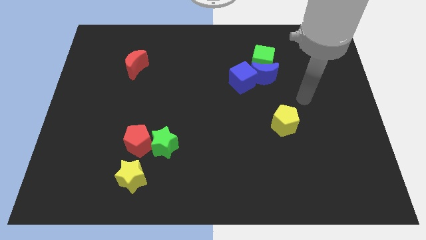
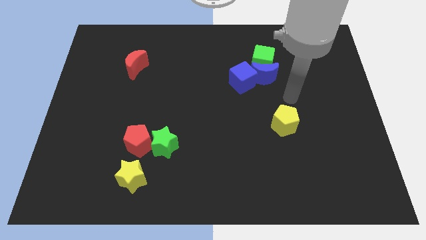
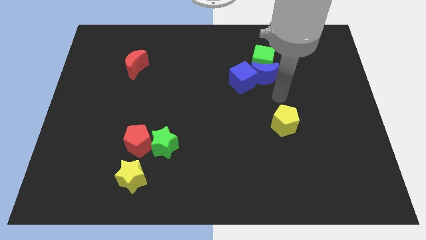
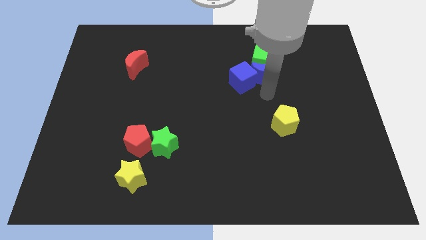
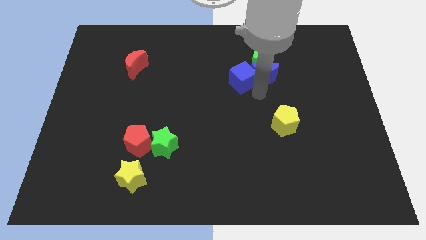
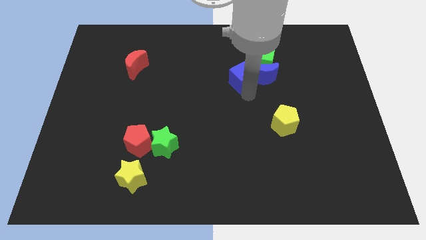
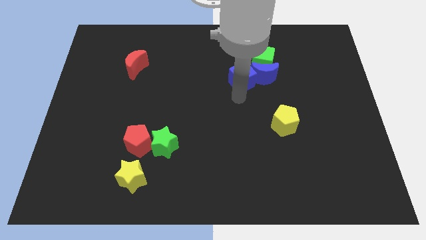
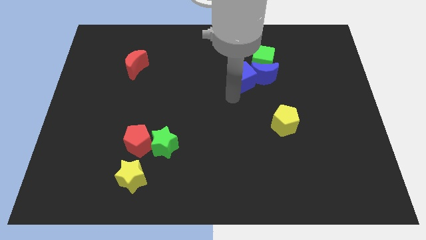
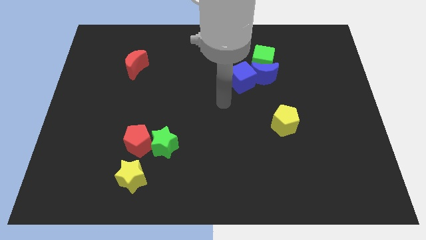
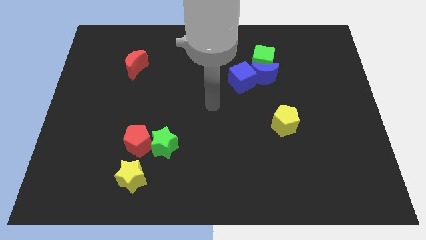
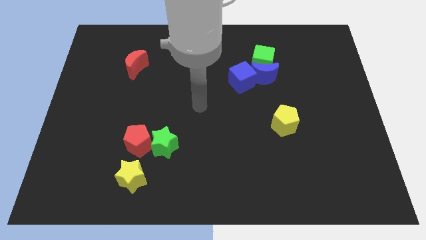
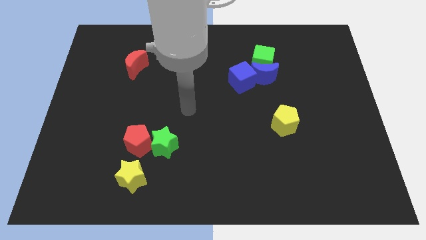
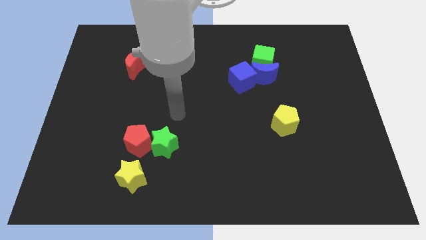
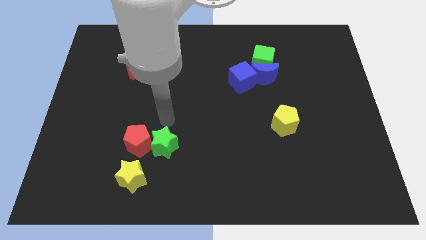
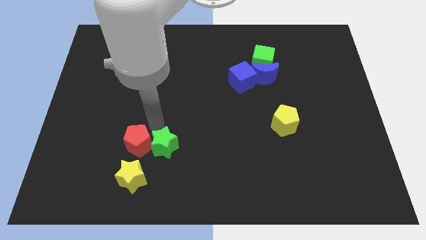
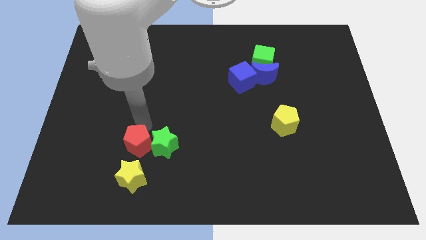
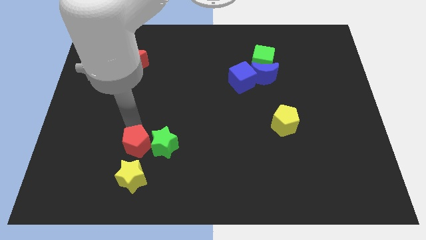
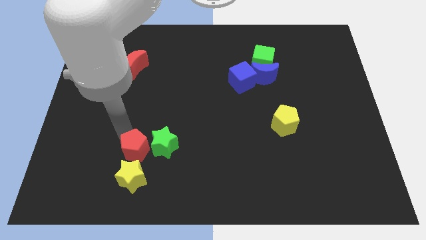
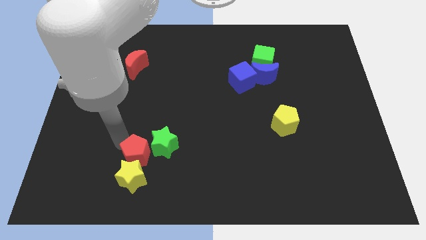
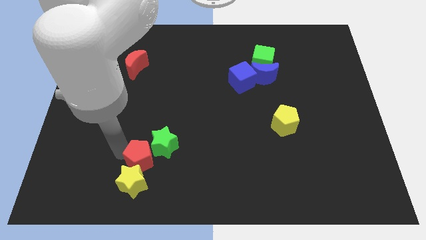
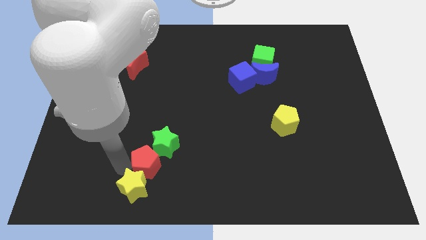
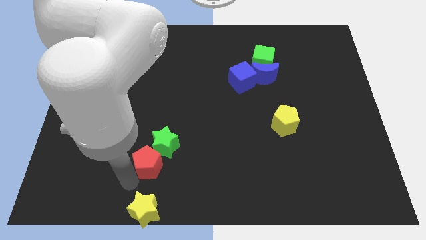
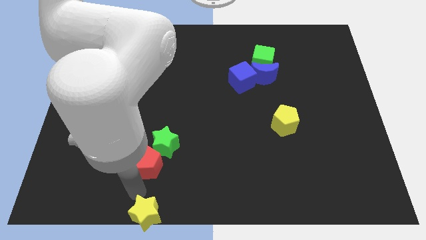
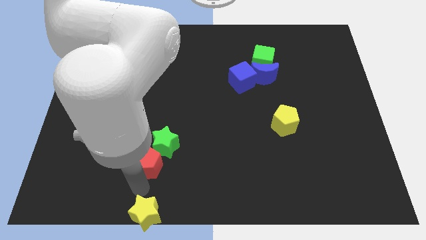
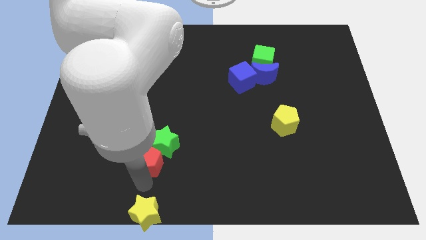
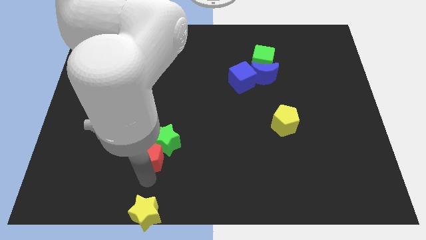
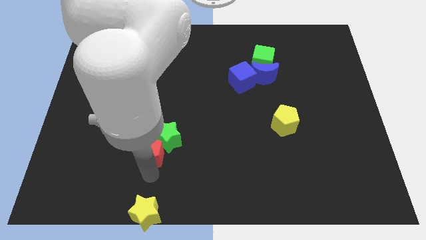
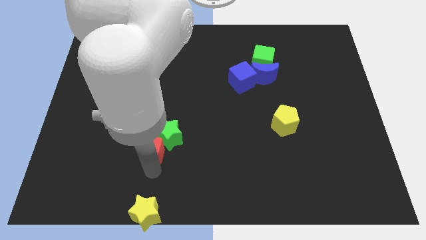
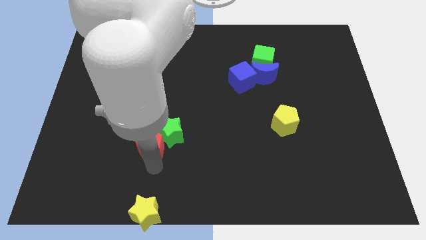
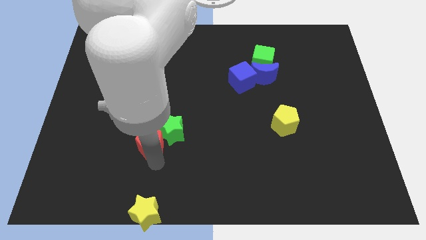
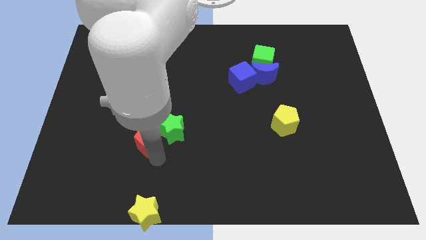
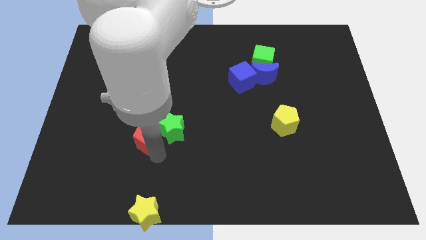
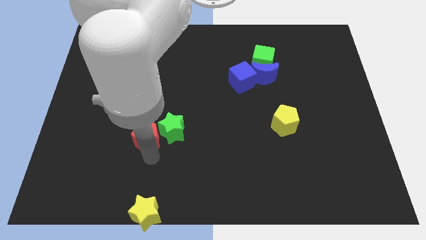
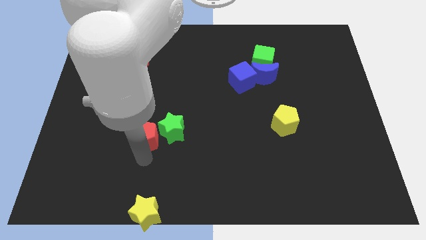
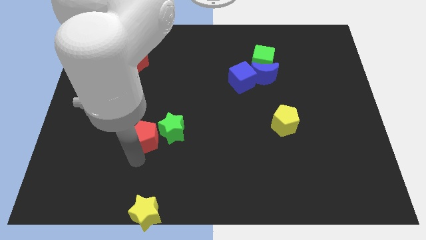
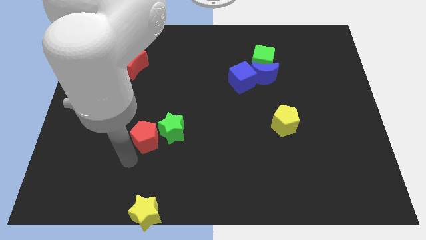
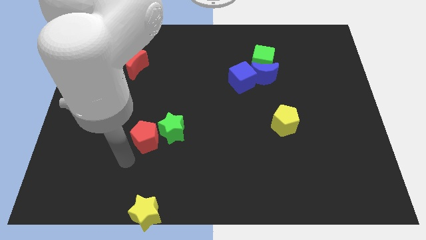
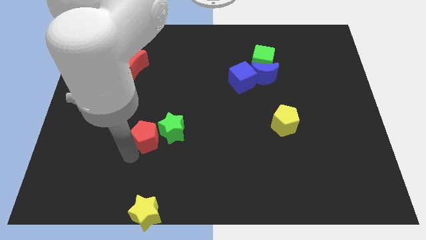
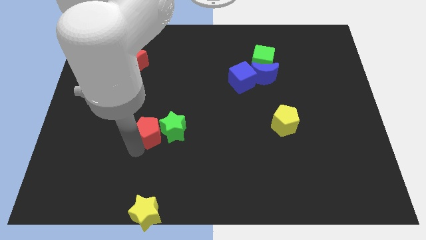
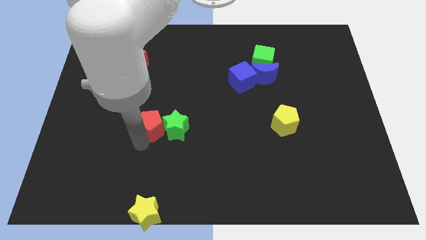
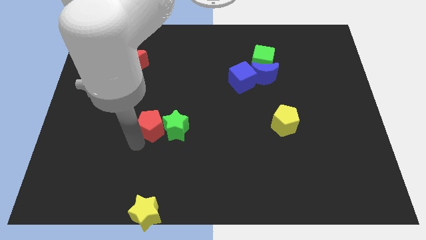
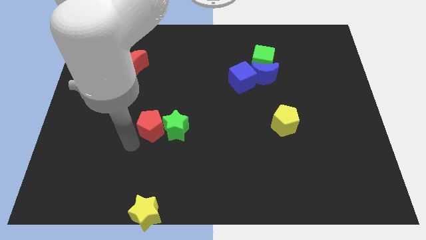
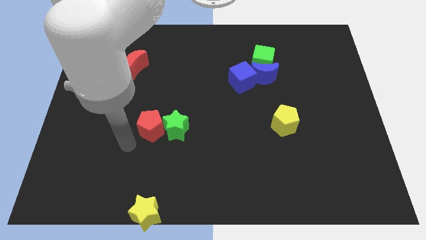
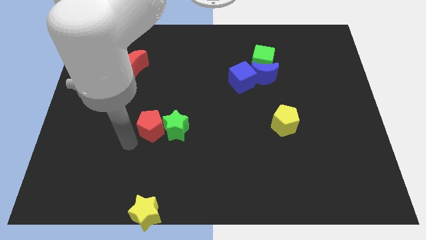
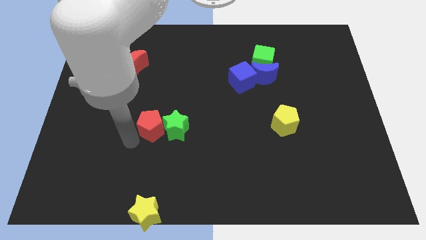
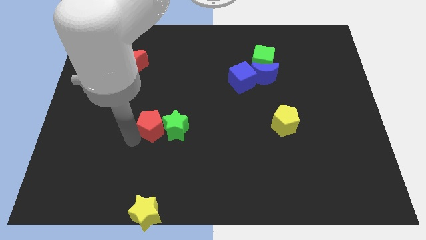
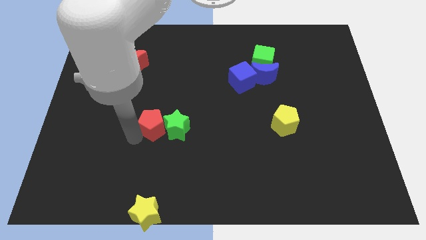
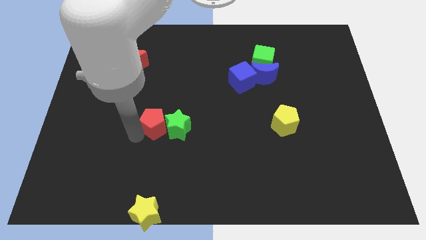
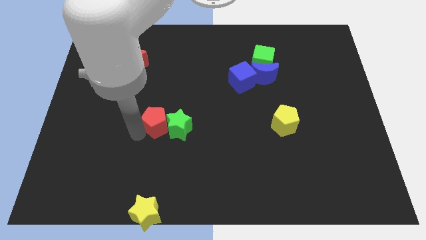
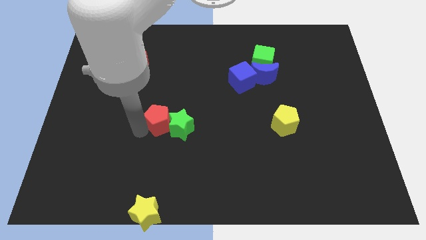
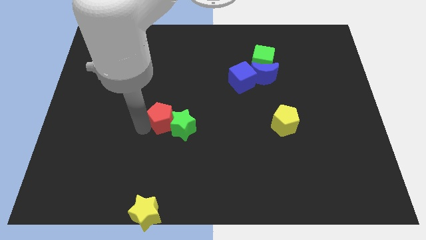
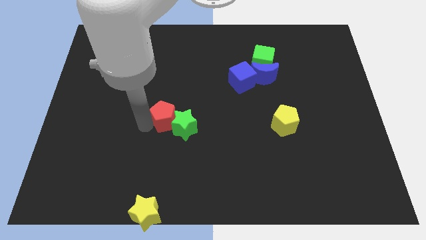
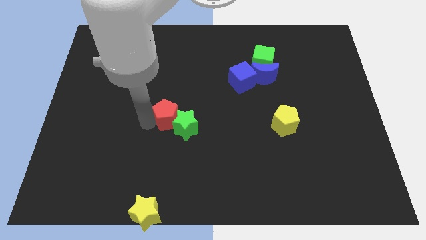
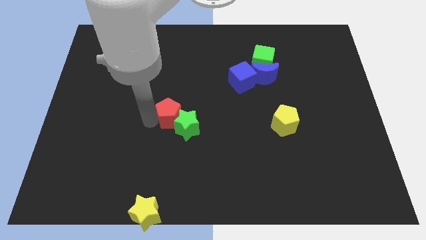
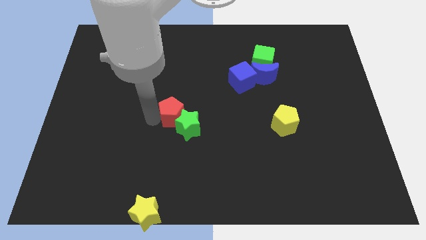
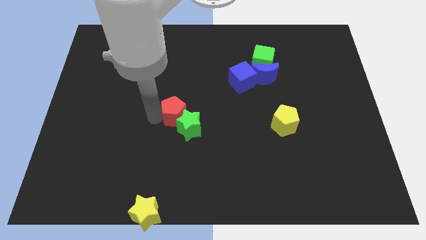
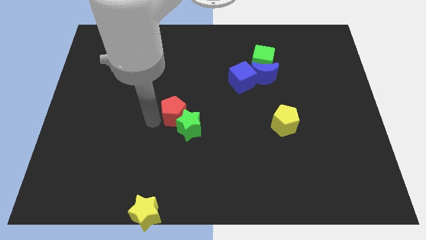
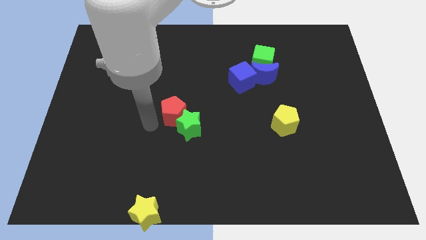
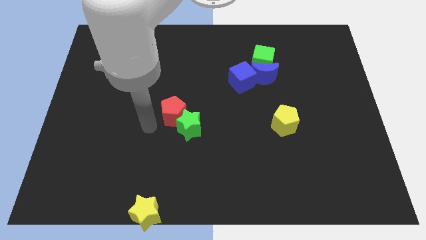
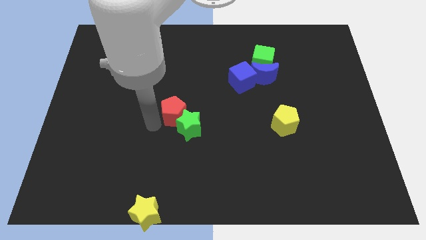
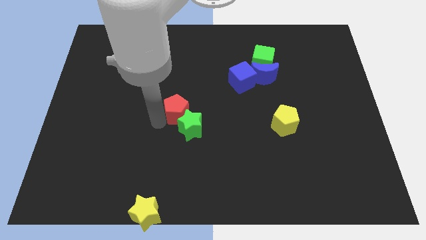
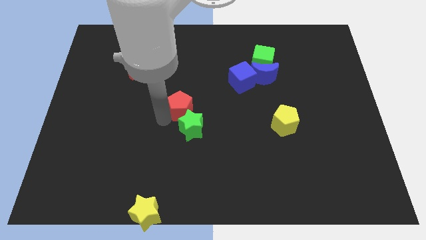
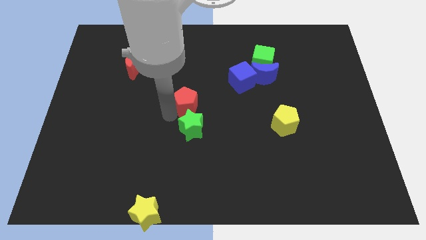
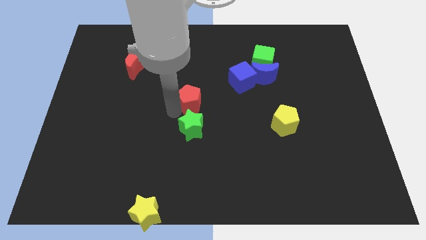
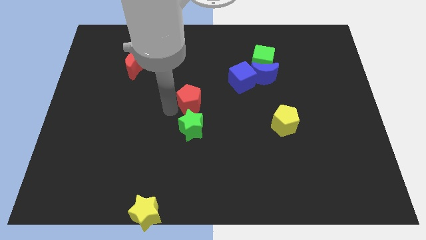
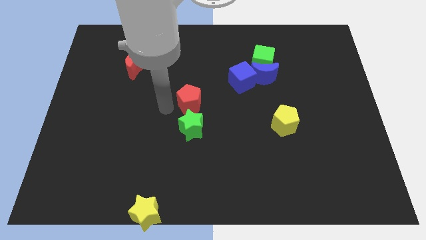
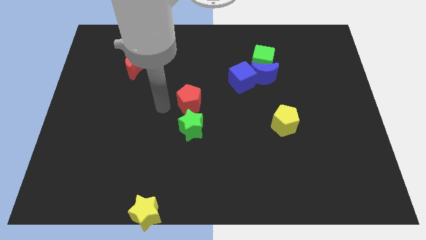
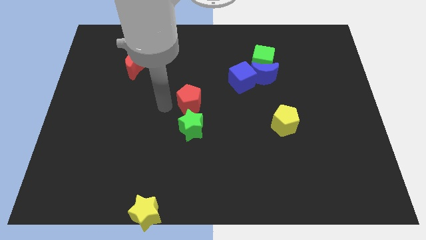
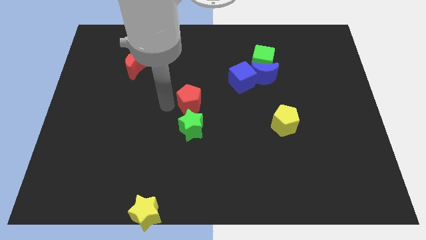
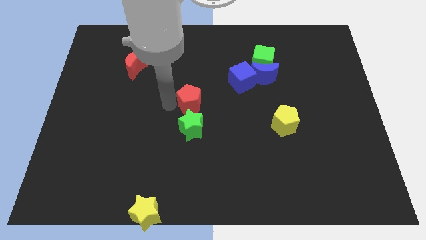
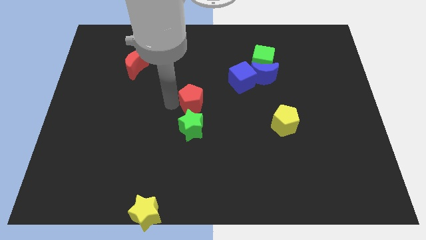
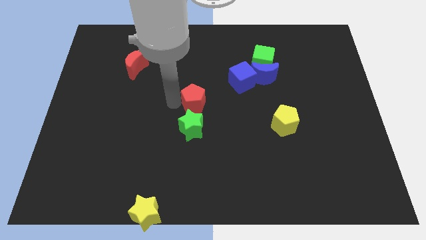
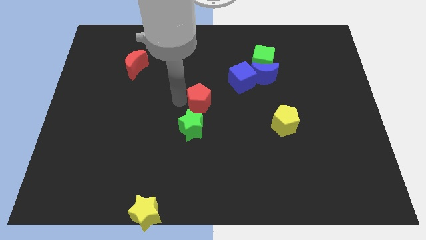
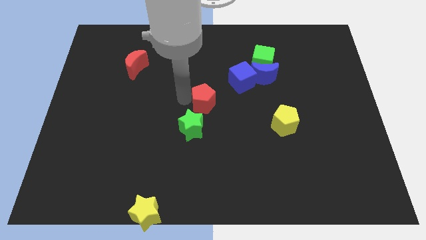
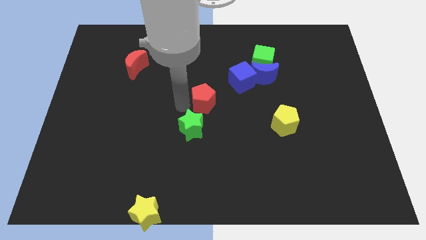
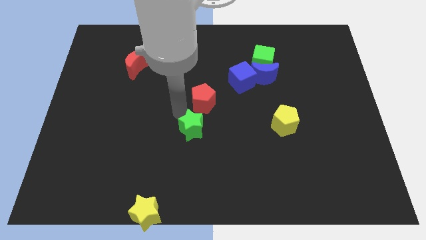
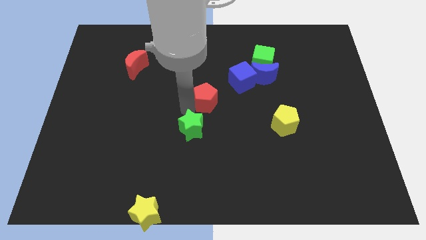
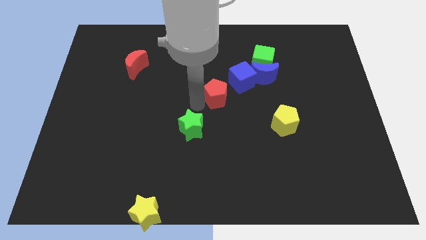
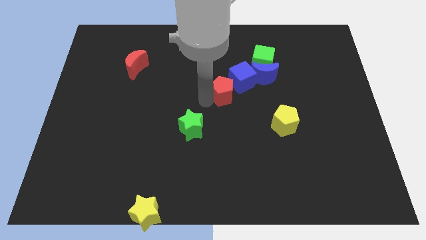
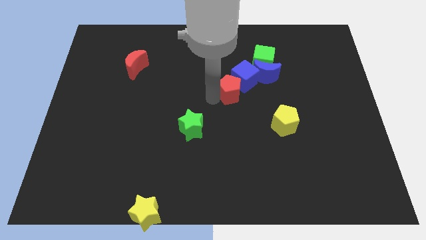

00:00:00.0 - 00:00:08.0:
move the red pentagon to the blue cube
